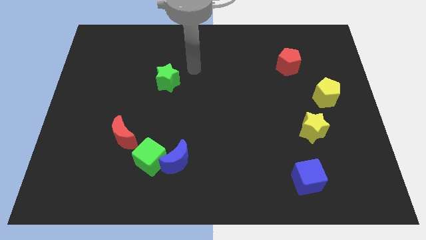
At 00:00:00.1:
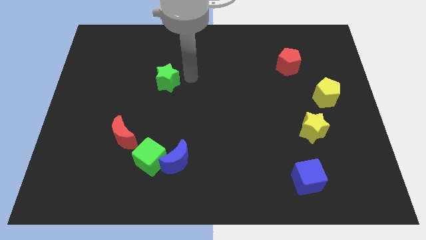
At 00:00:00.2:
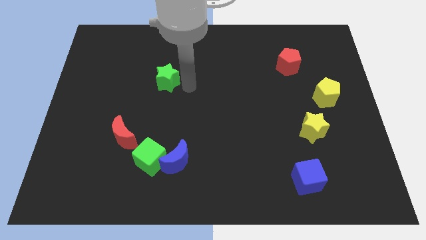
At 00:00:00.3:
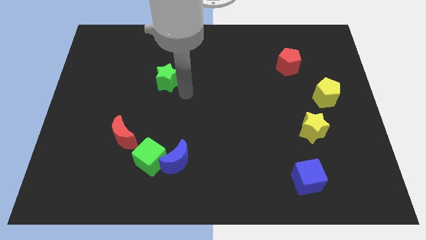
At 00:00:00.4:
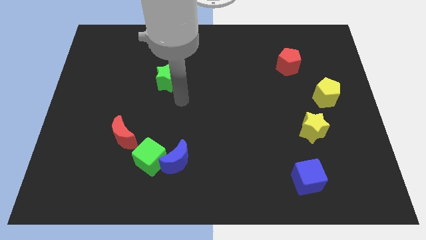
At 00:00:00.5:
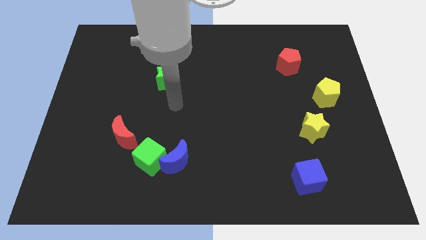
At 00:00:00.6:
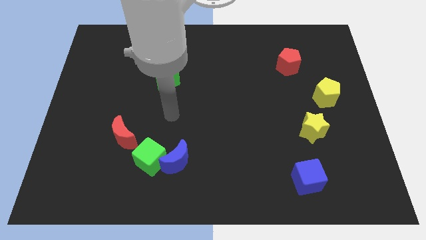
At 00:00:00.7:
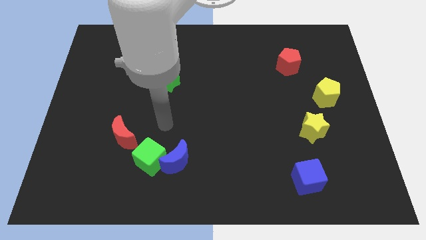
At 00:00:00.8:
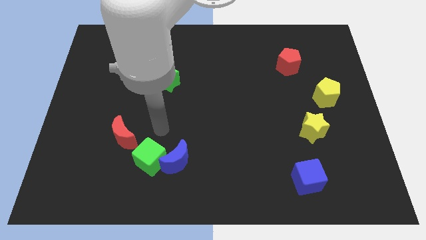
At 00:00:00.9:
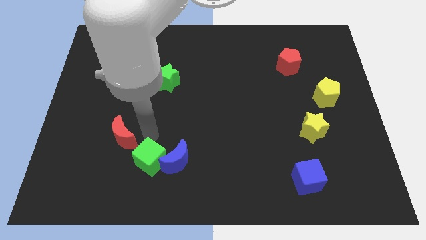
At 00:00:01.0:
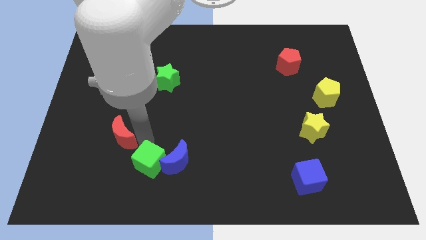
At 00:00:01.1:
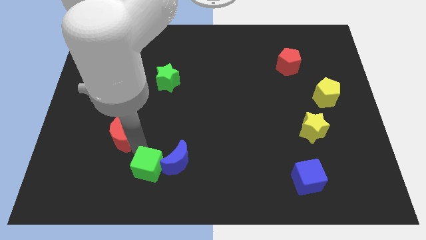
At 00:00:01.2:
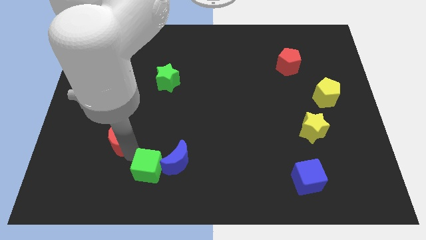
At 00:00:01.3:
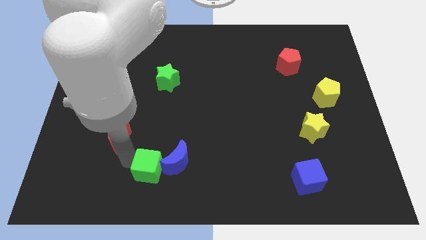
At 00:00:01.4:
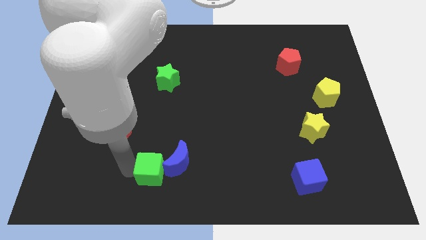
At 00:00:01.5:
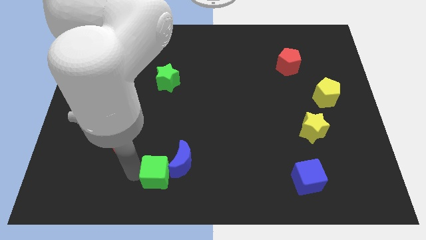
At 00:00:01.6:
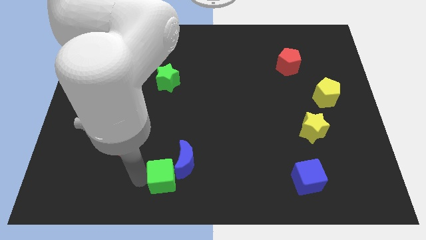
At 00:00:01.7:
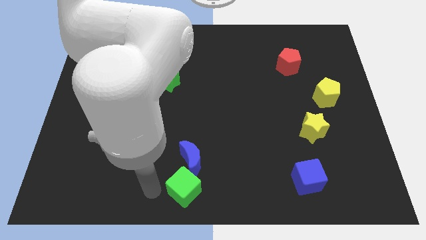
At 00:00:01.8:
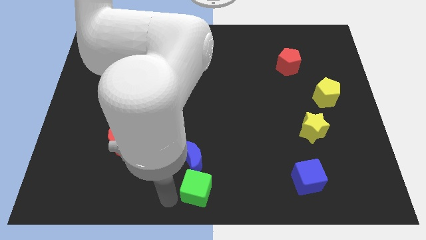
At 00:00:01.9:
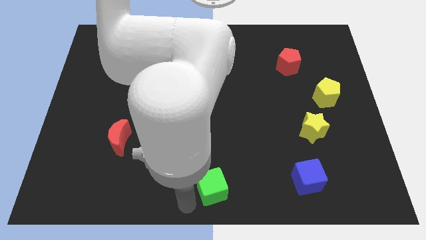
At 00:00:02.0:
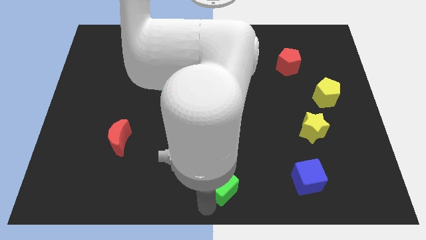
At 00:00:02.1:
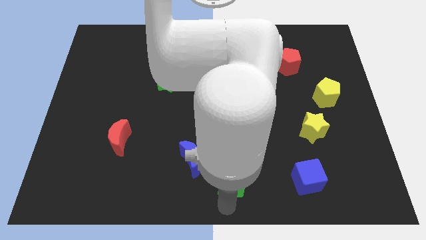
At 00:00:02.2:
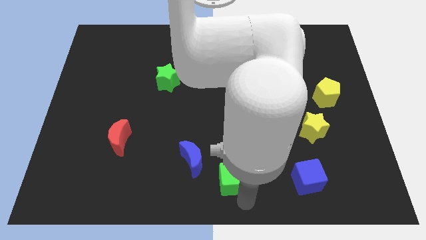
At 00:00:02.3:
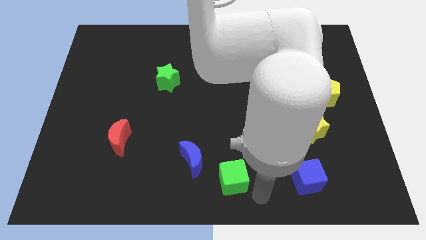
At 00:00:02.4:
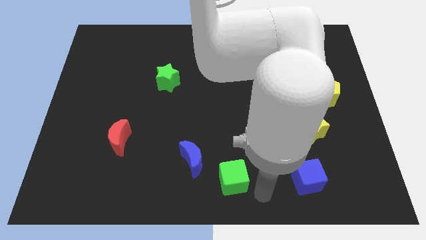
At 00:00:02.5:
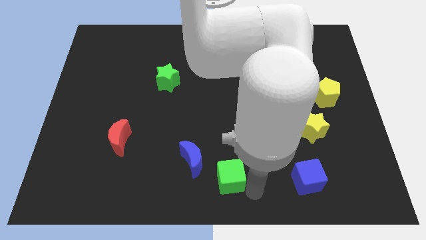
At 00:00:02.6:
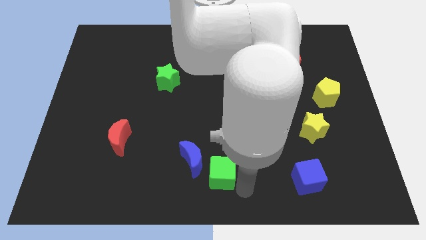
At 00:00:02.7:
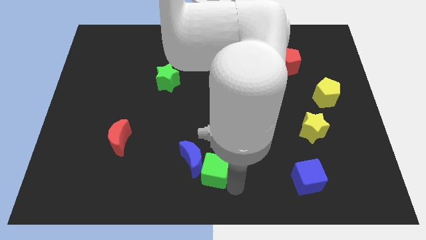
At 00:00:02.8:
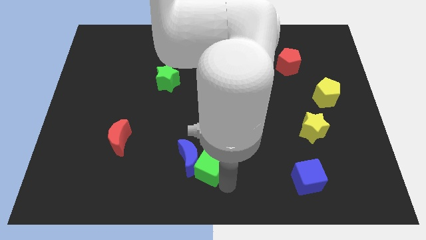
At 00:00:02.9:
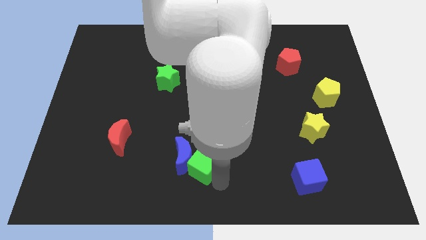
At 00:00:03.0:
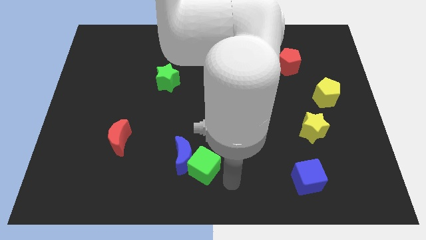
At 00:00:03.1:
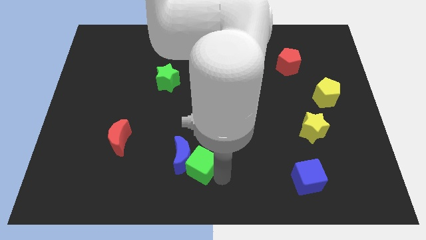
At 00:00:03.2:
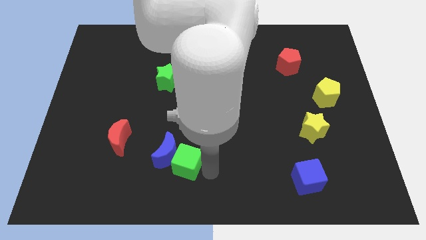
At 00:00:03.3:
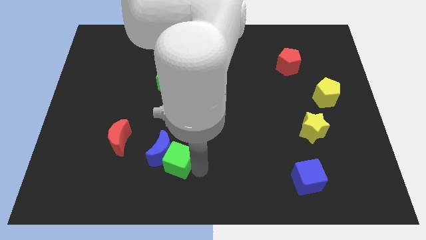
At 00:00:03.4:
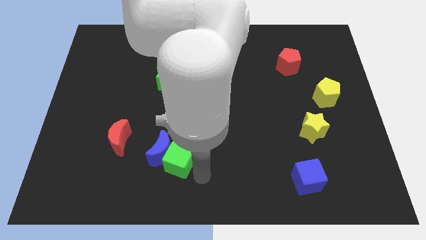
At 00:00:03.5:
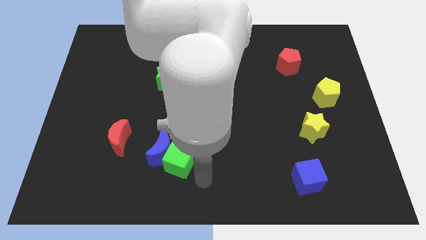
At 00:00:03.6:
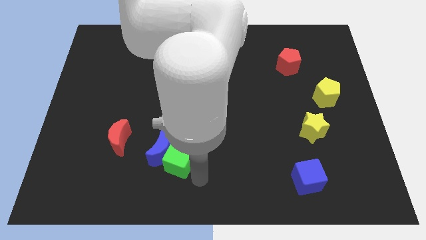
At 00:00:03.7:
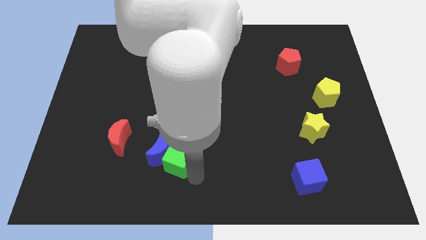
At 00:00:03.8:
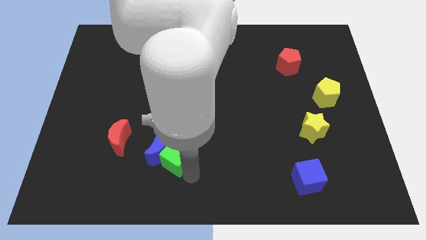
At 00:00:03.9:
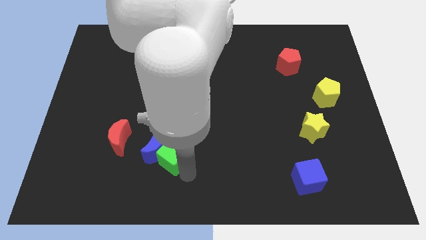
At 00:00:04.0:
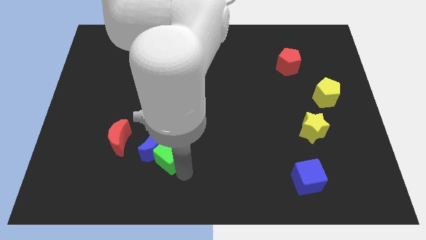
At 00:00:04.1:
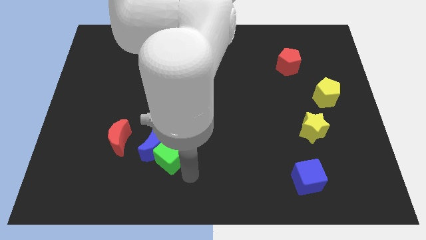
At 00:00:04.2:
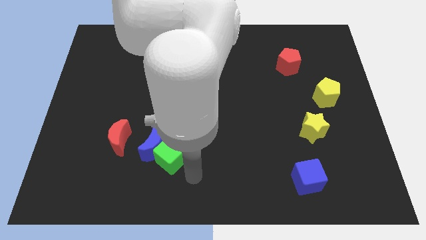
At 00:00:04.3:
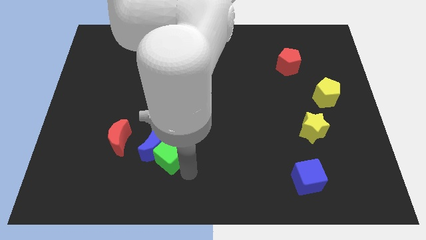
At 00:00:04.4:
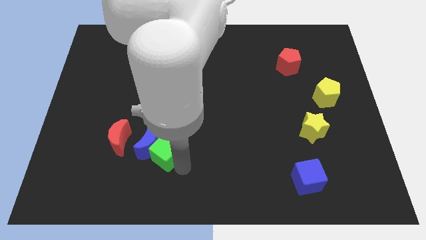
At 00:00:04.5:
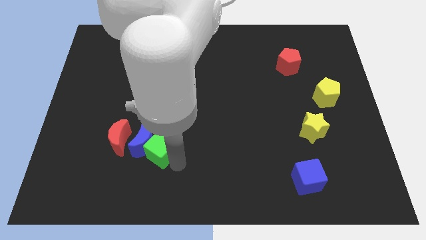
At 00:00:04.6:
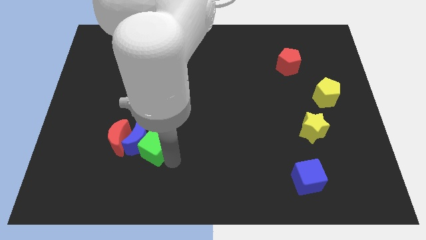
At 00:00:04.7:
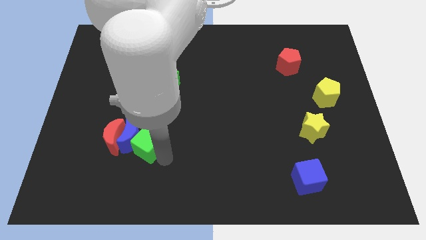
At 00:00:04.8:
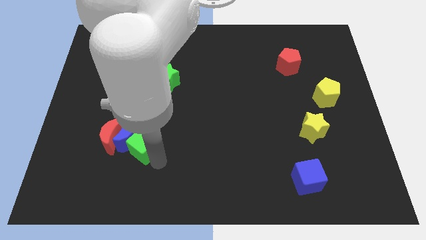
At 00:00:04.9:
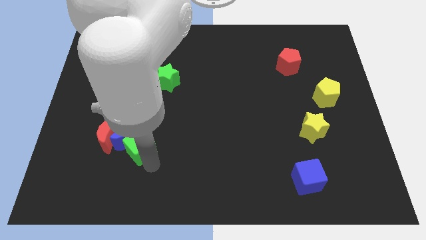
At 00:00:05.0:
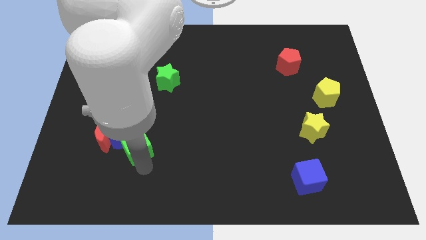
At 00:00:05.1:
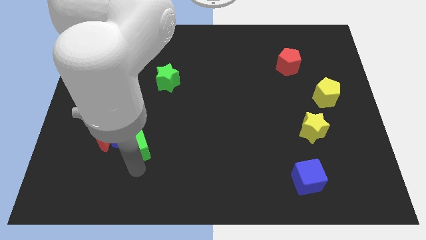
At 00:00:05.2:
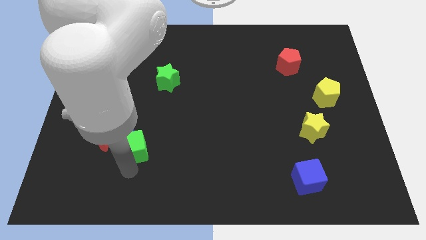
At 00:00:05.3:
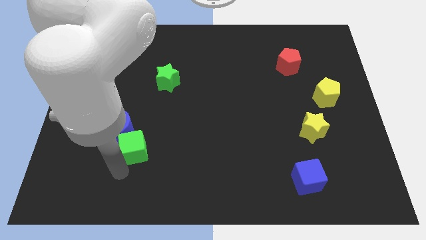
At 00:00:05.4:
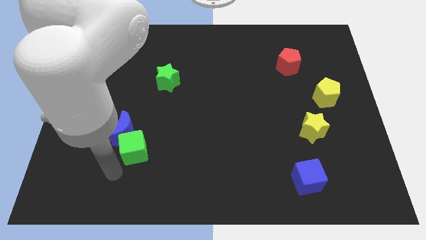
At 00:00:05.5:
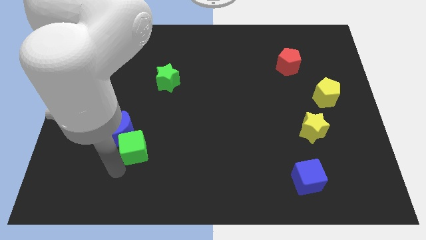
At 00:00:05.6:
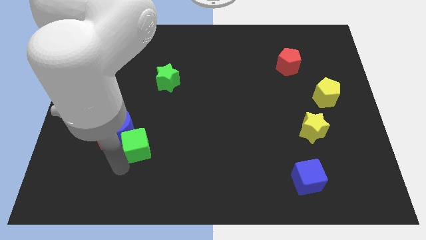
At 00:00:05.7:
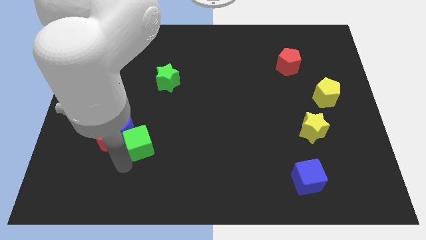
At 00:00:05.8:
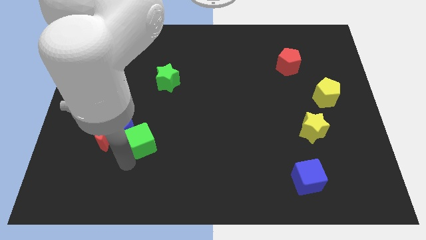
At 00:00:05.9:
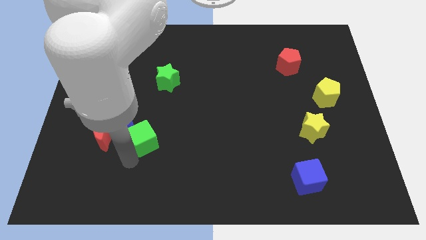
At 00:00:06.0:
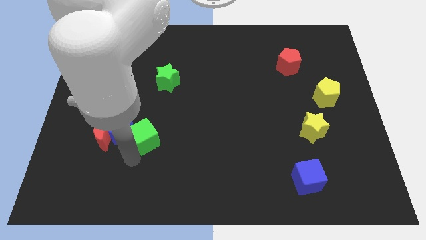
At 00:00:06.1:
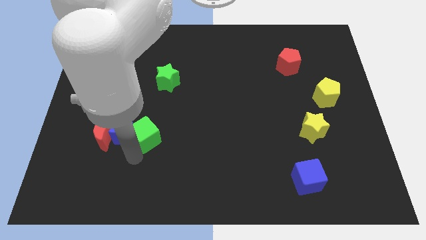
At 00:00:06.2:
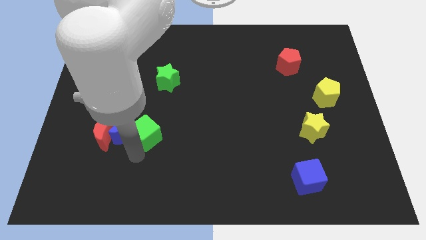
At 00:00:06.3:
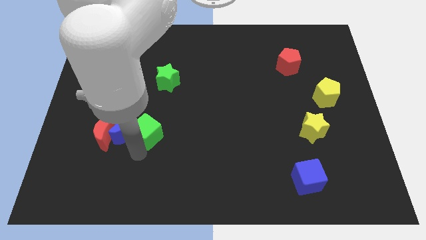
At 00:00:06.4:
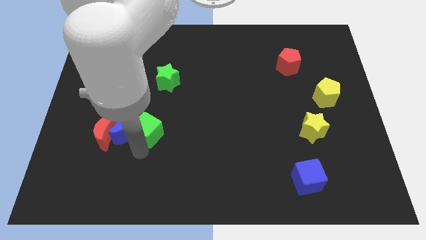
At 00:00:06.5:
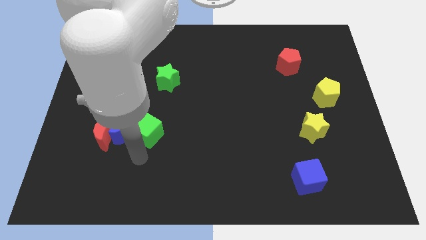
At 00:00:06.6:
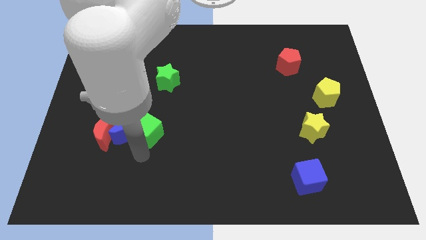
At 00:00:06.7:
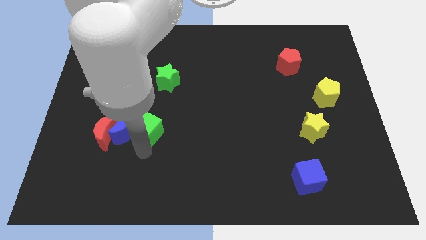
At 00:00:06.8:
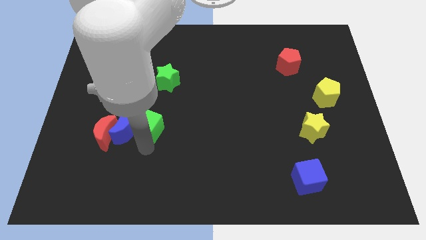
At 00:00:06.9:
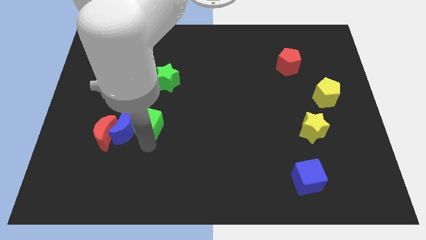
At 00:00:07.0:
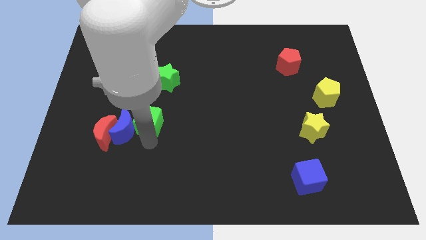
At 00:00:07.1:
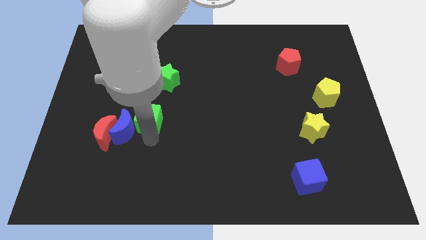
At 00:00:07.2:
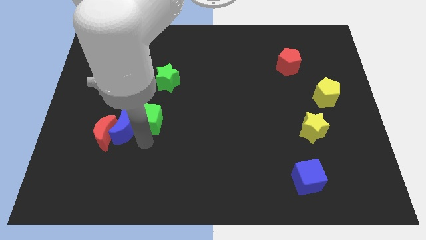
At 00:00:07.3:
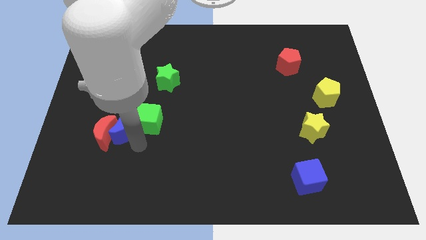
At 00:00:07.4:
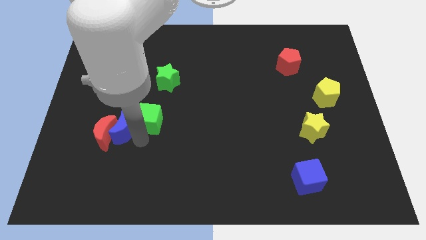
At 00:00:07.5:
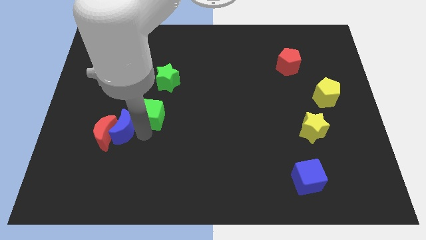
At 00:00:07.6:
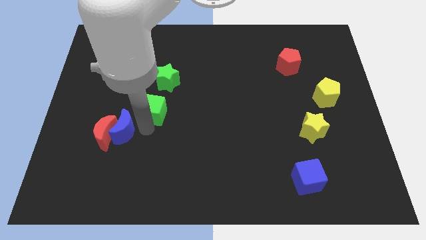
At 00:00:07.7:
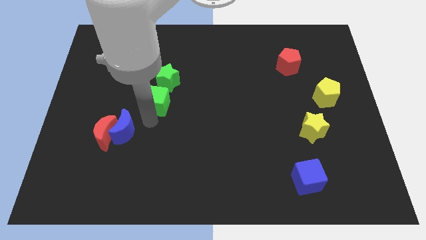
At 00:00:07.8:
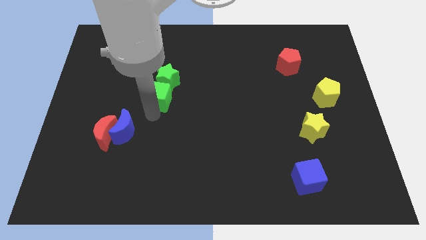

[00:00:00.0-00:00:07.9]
push the green cube close to the green star
